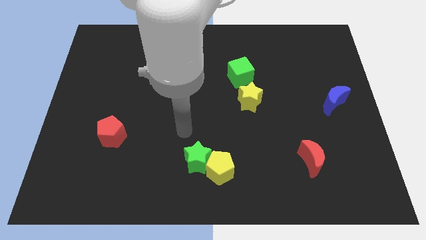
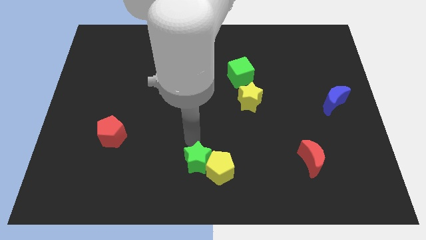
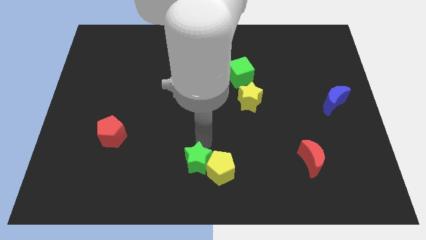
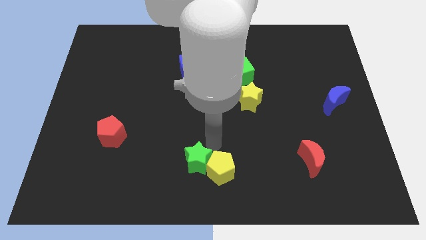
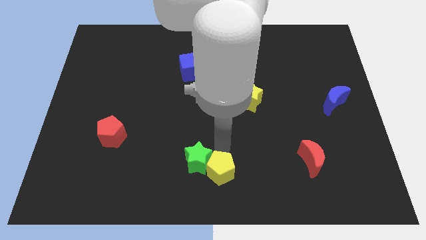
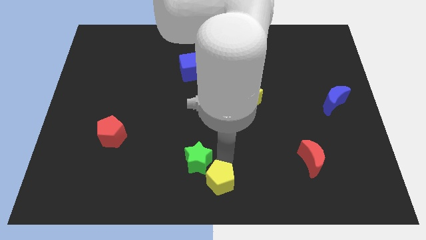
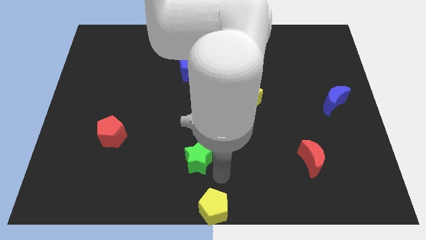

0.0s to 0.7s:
move the green star away from the yellow pentagon

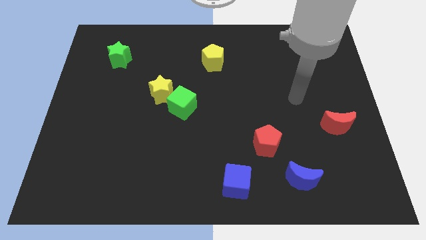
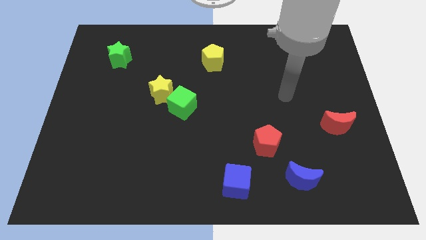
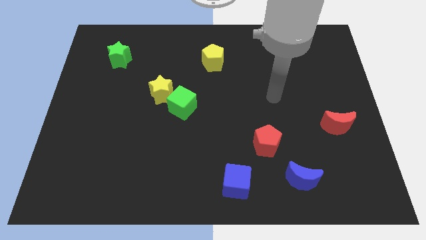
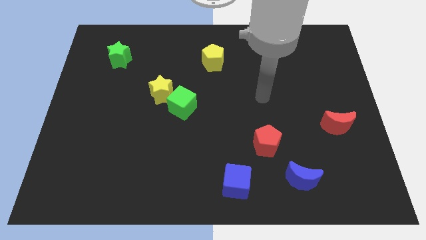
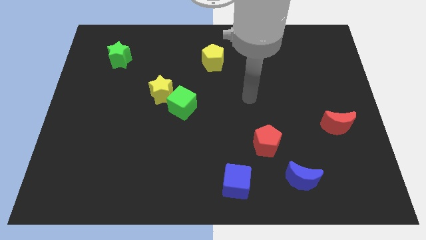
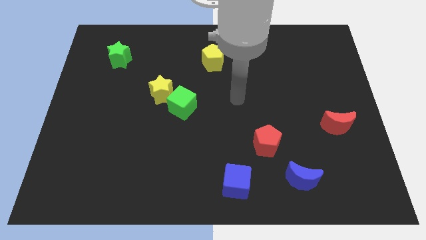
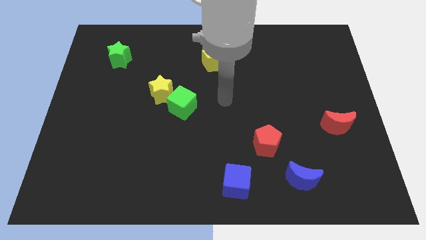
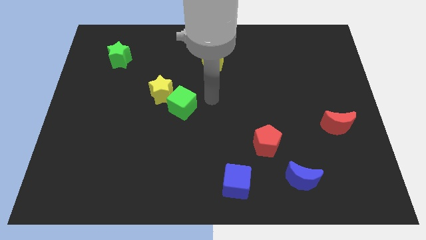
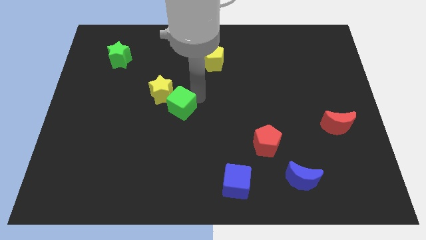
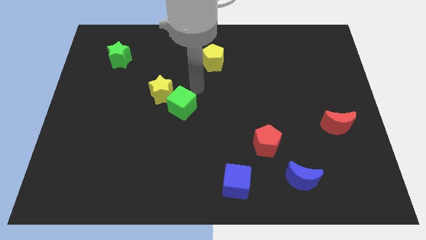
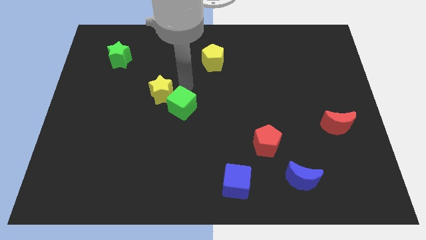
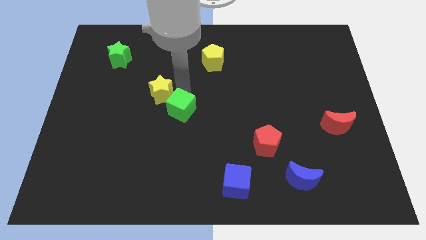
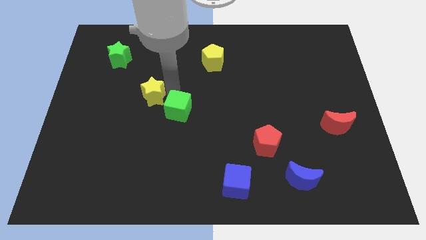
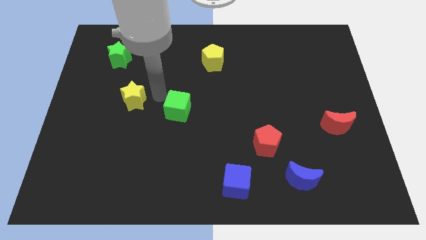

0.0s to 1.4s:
pull the green cube apart from the yellow star

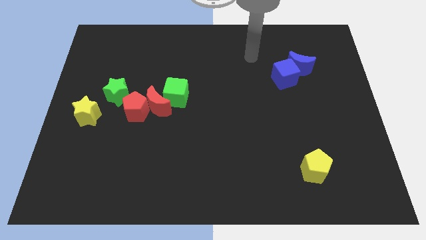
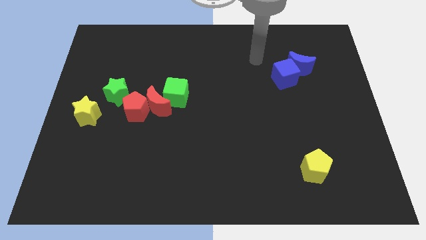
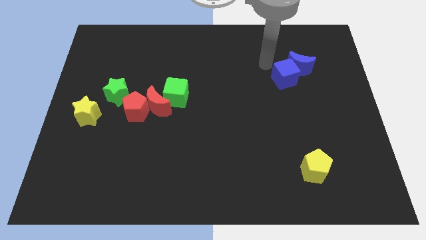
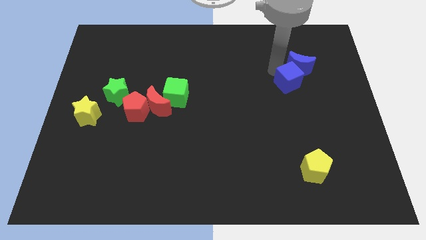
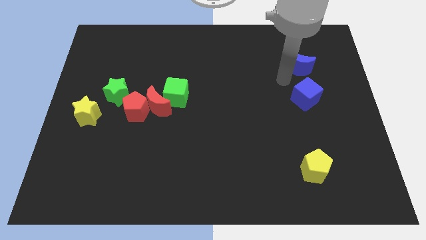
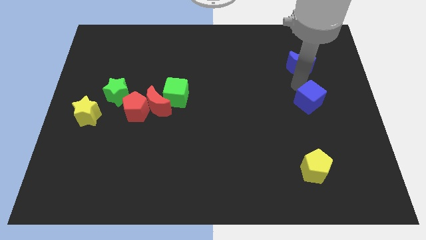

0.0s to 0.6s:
pull the blue moon apart from the blue cube

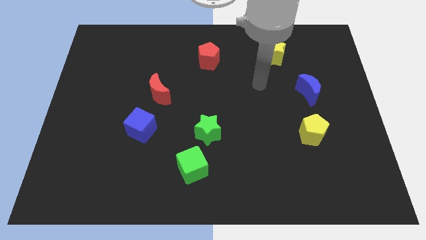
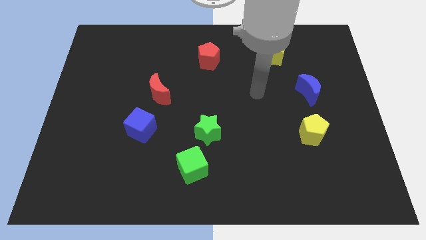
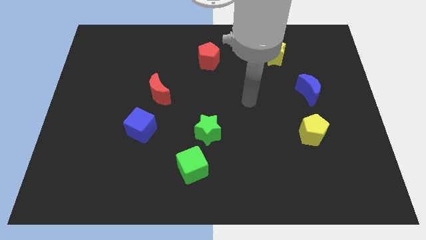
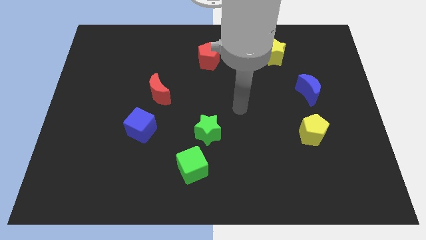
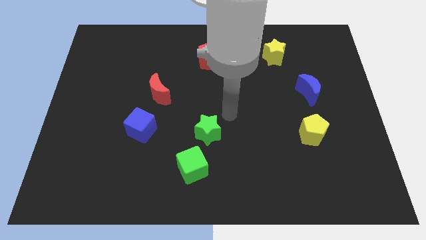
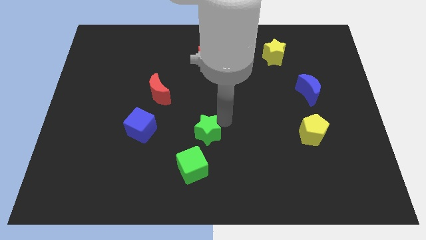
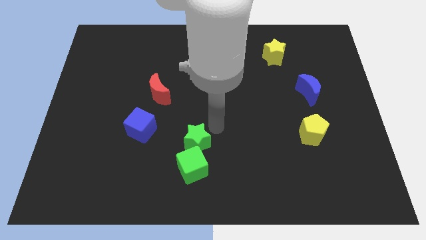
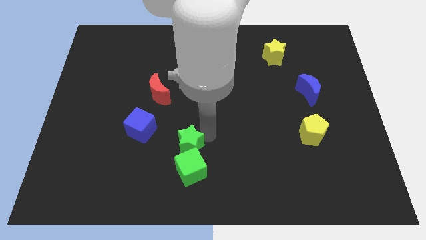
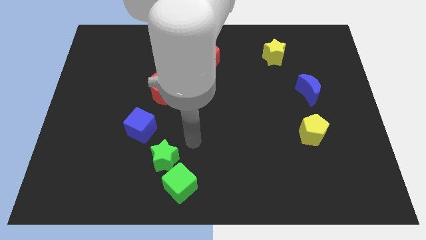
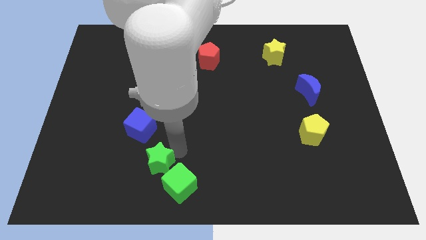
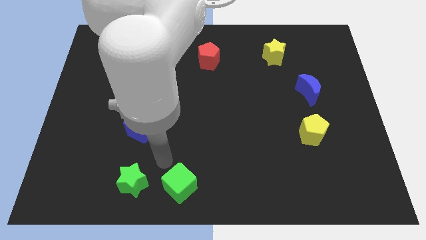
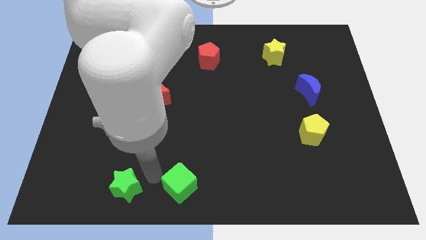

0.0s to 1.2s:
separate the green cube from the green star

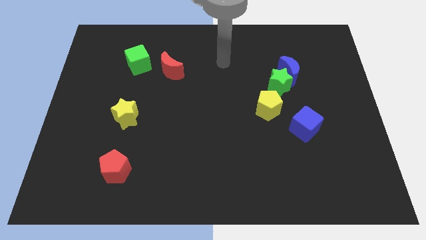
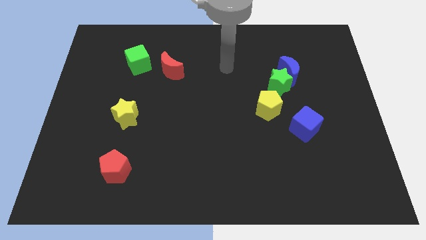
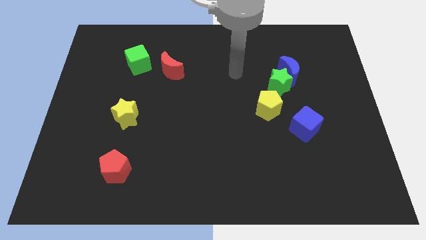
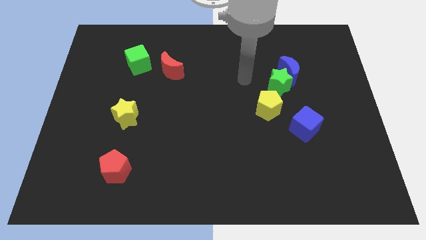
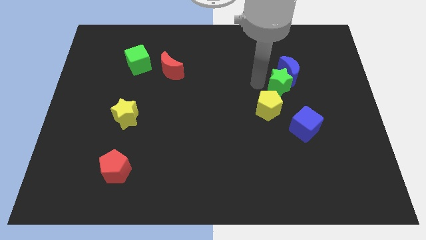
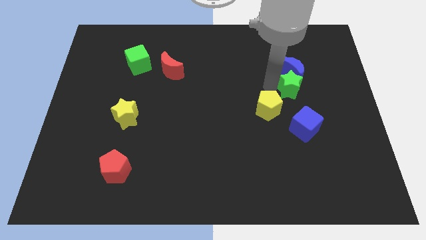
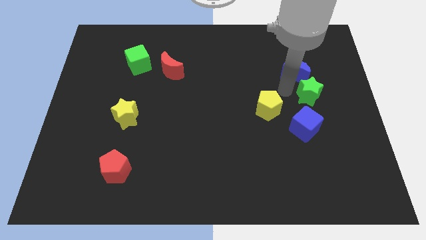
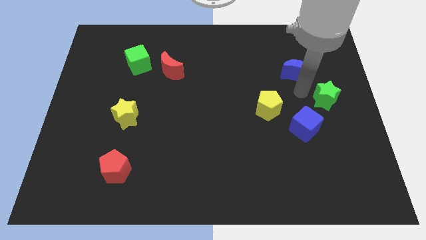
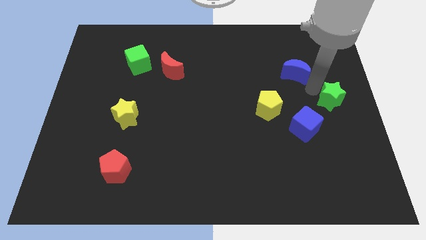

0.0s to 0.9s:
pull the blue moon apart from the green star

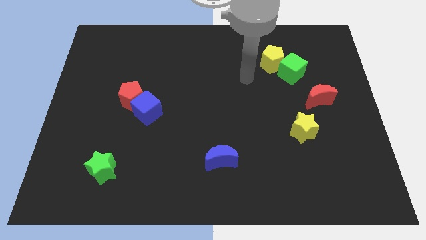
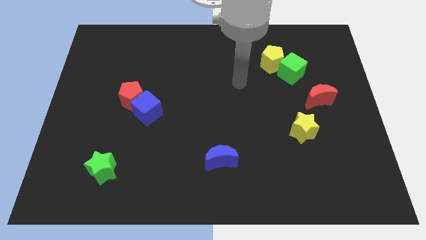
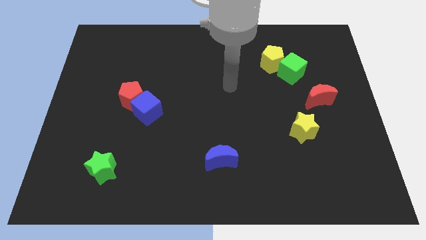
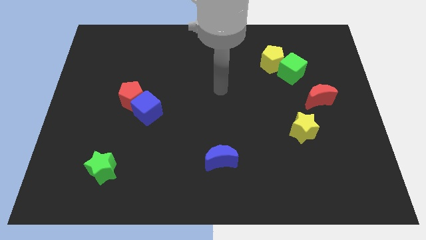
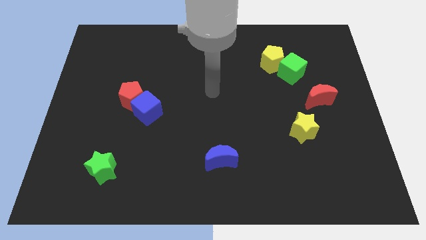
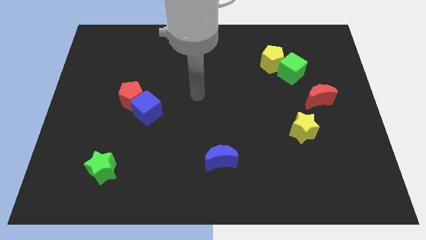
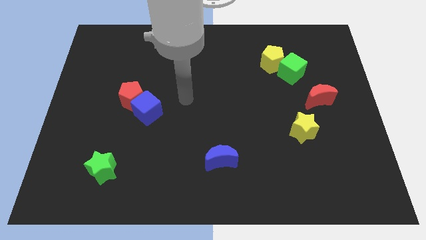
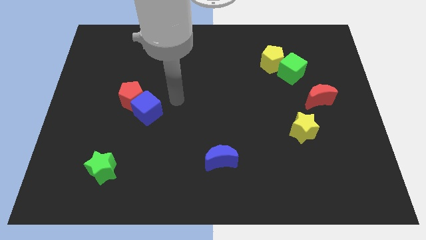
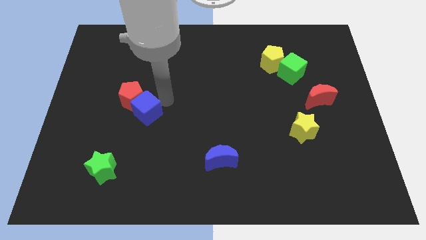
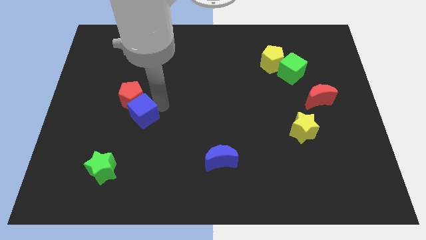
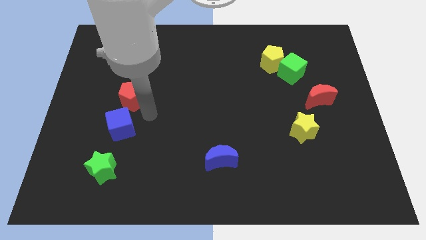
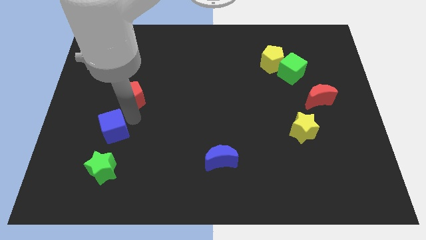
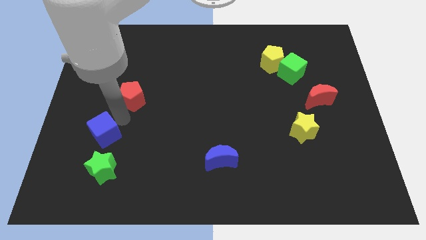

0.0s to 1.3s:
move the red pentagon away from the blue cube

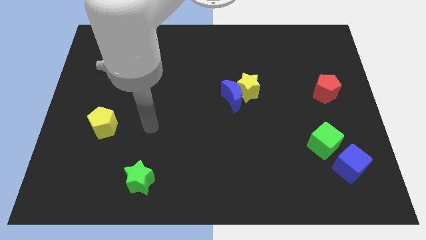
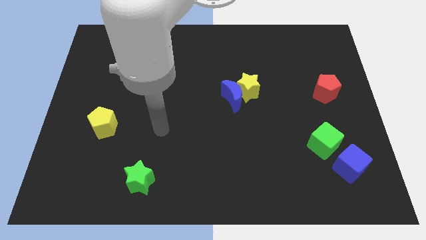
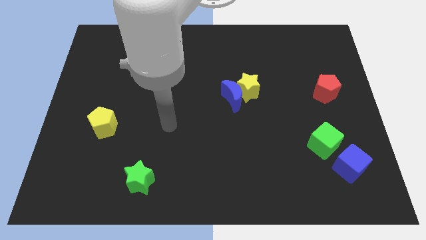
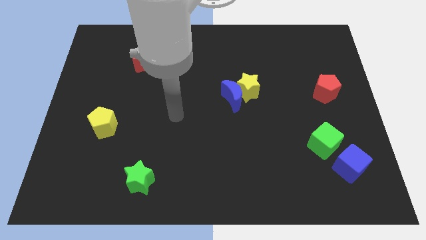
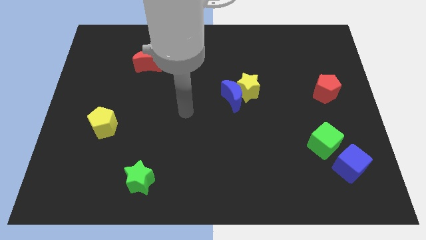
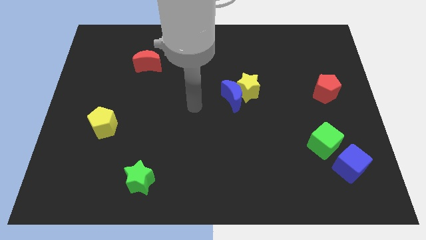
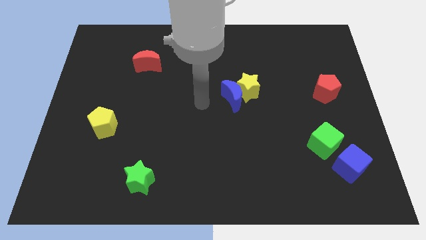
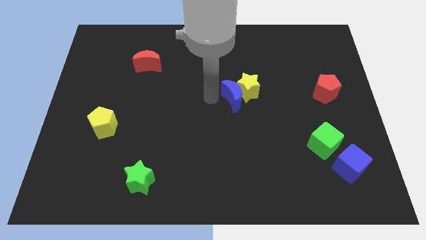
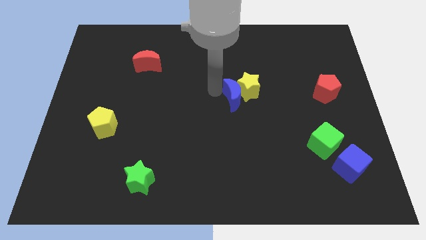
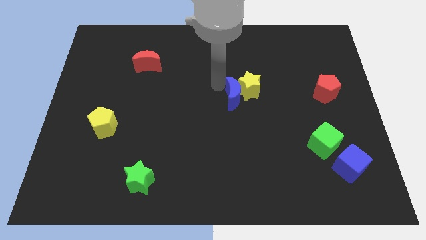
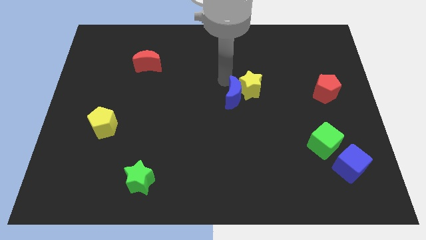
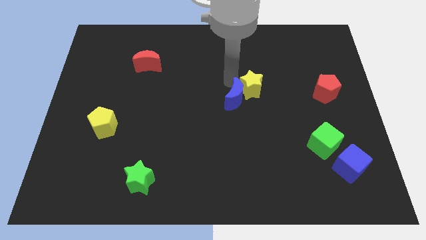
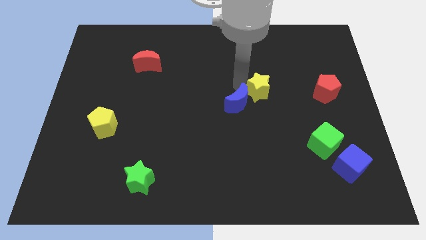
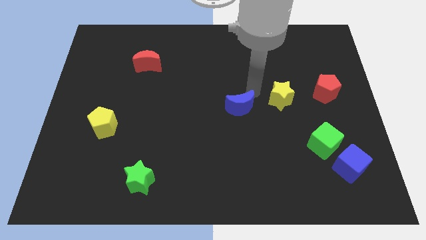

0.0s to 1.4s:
separate the blue moon from the yellow star

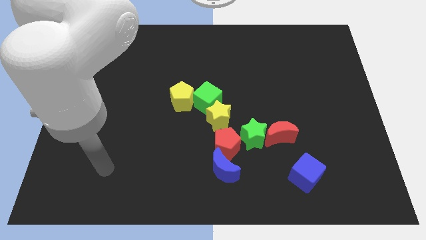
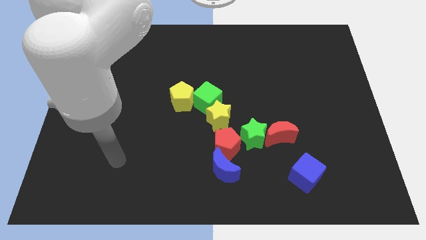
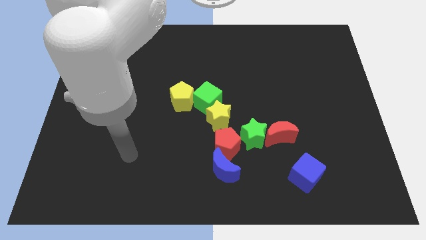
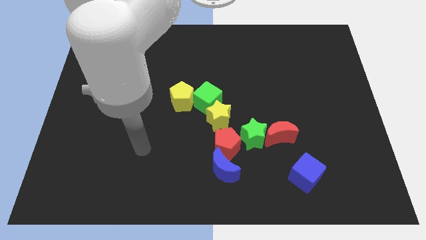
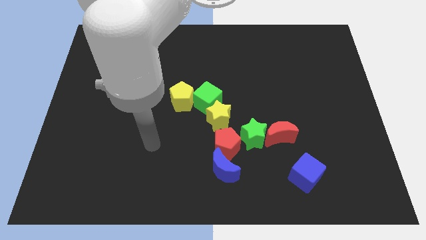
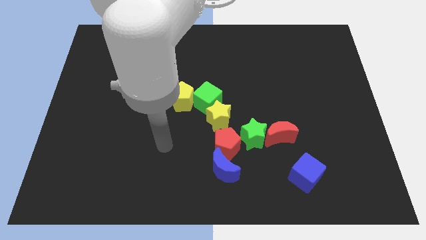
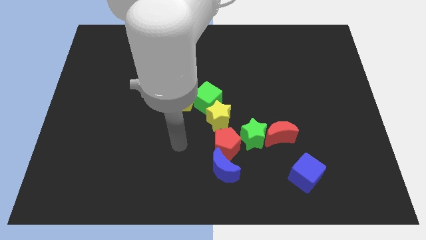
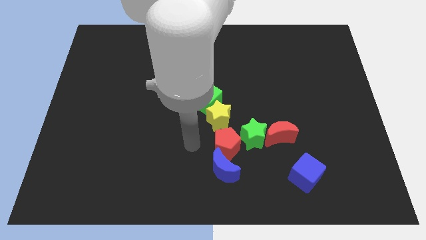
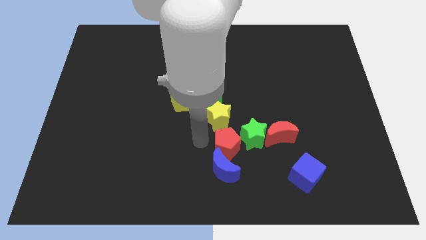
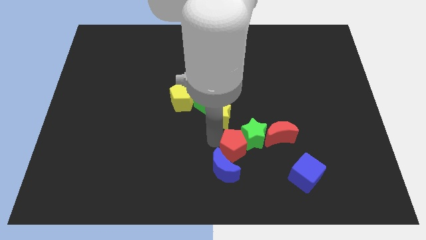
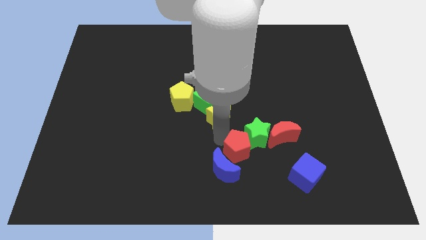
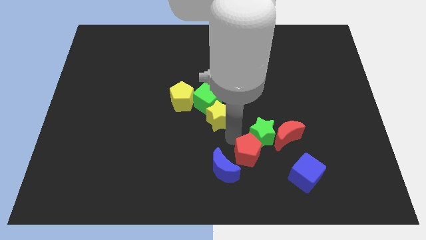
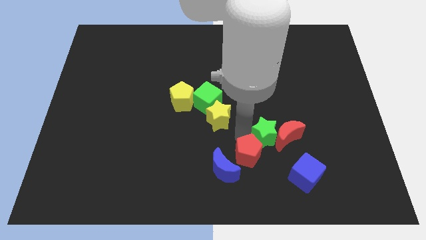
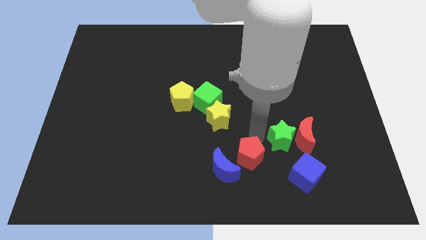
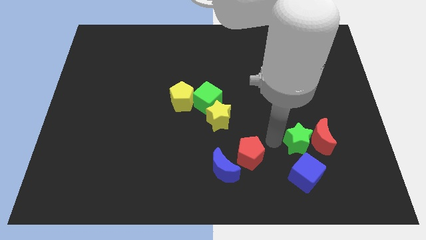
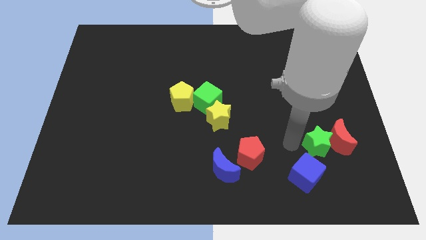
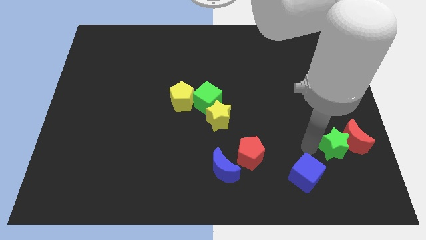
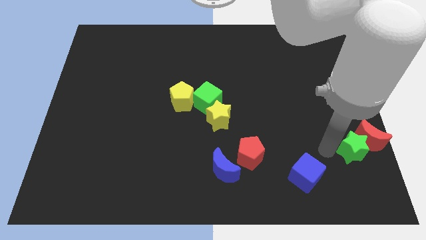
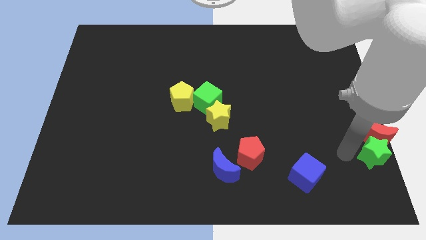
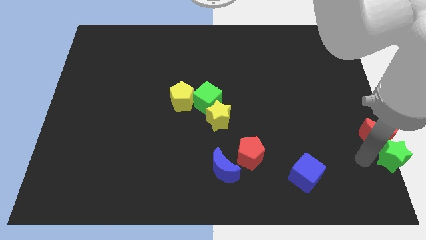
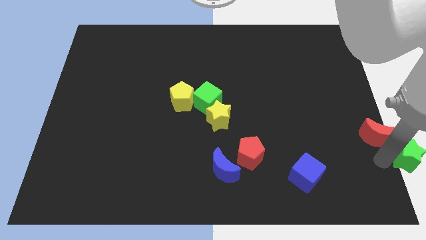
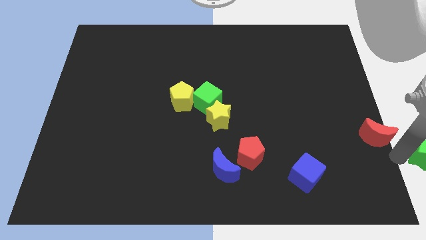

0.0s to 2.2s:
move the red moon away from the green star
